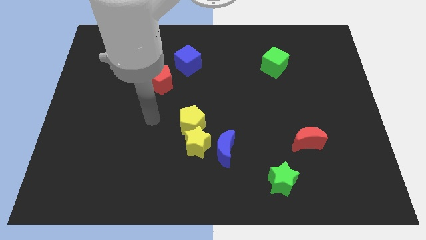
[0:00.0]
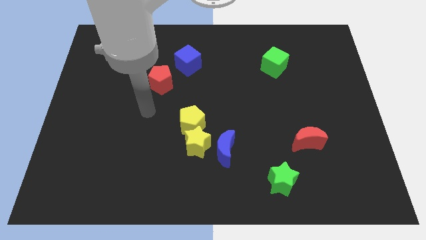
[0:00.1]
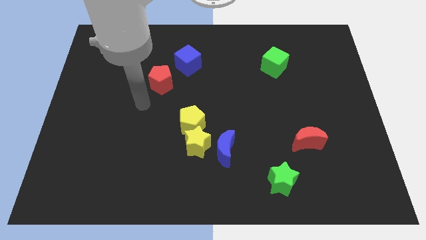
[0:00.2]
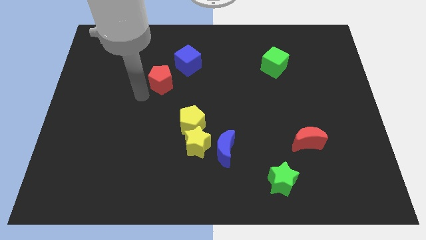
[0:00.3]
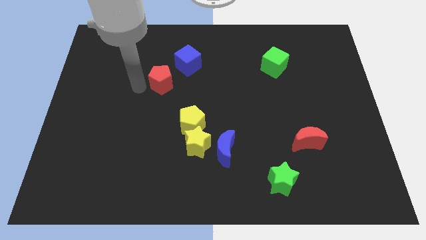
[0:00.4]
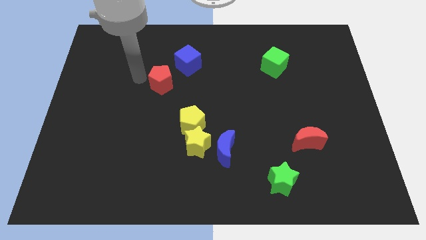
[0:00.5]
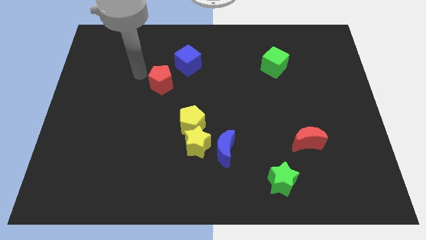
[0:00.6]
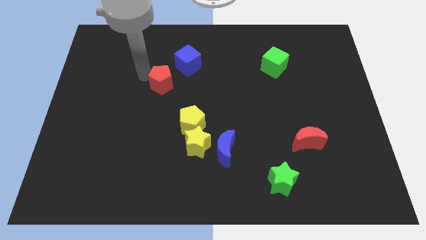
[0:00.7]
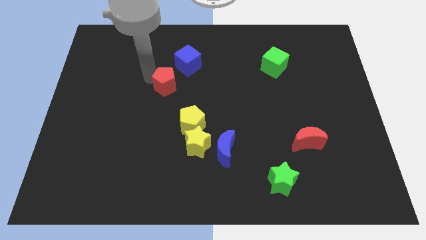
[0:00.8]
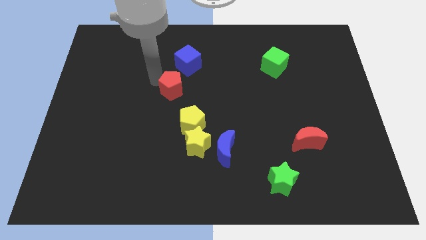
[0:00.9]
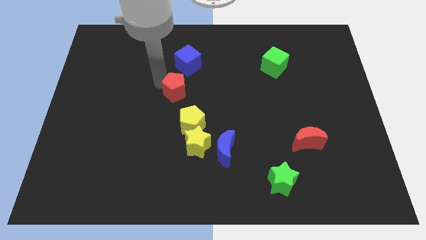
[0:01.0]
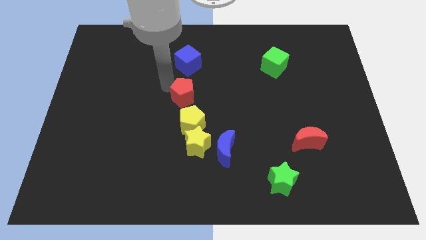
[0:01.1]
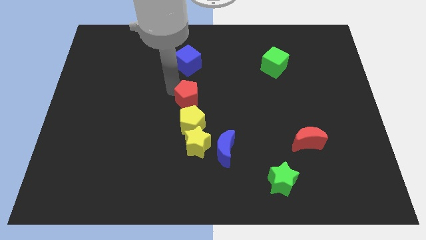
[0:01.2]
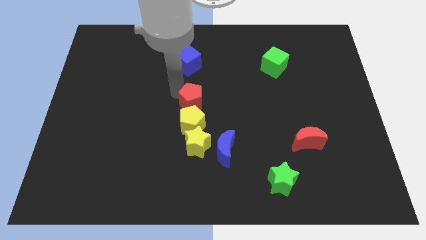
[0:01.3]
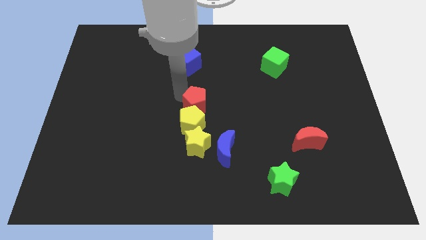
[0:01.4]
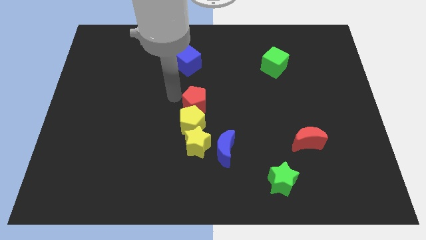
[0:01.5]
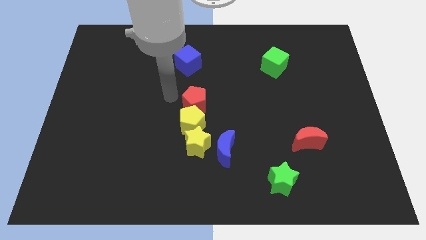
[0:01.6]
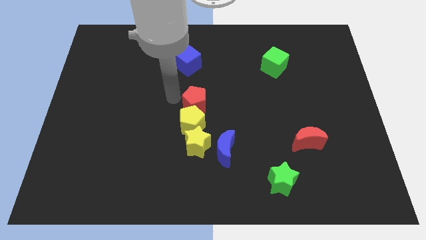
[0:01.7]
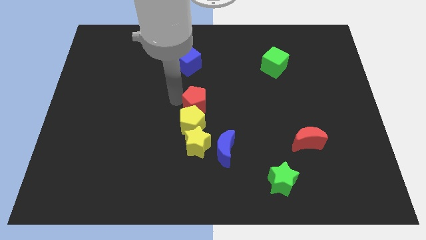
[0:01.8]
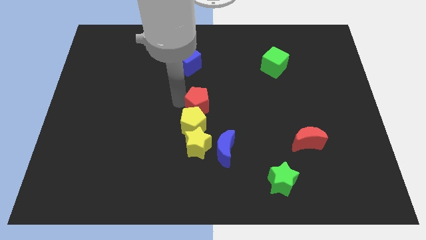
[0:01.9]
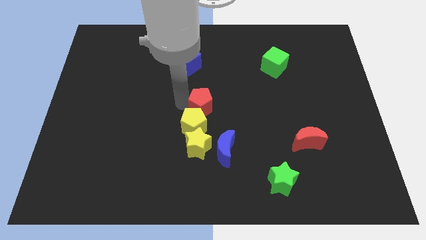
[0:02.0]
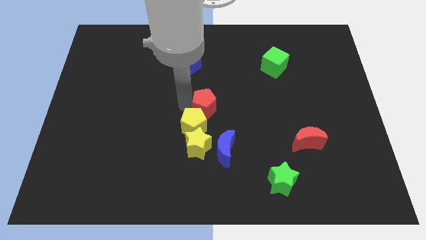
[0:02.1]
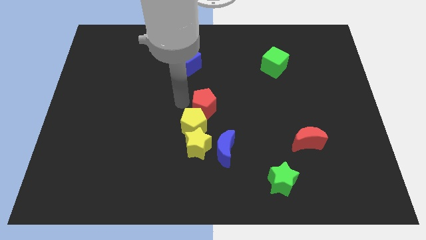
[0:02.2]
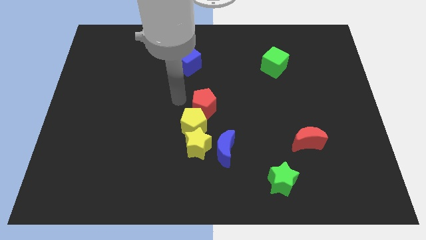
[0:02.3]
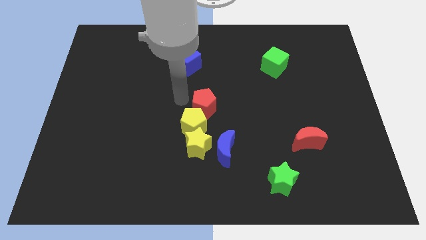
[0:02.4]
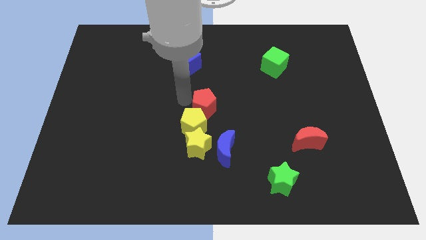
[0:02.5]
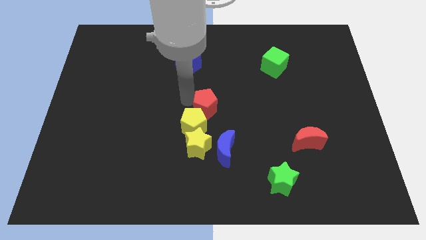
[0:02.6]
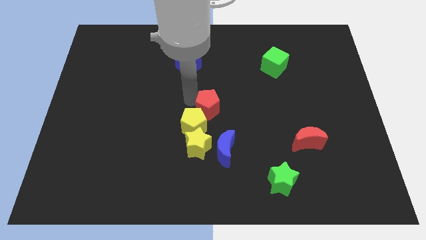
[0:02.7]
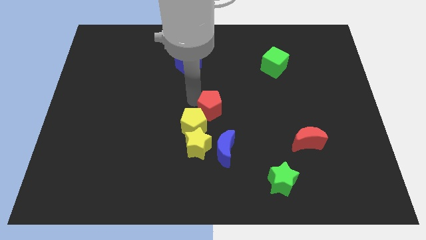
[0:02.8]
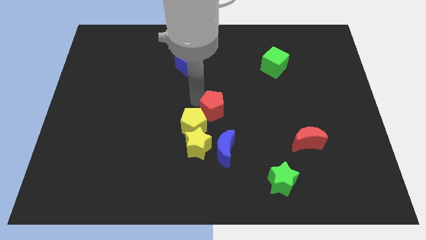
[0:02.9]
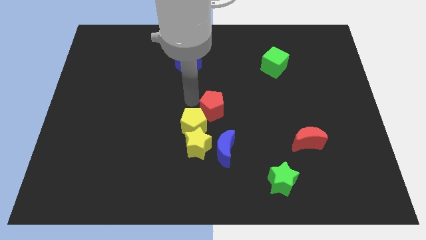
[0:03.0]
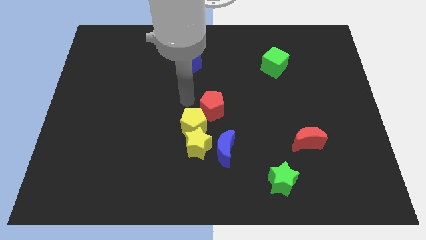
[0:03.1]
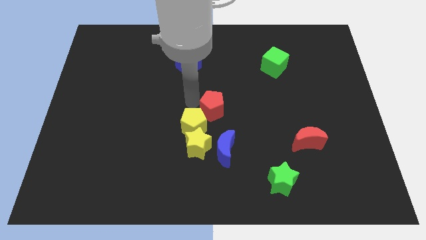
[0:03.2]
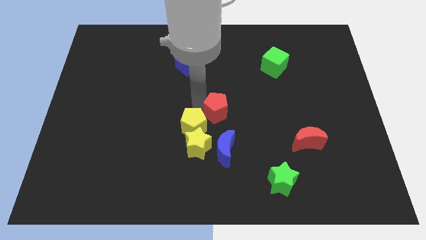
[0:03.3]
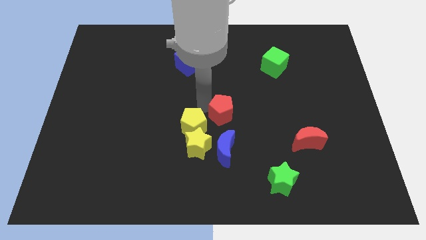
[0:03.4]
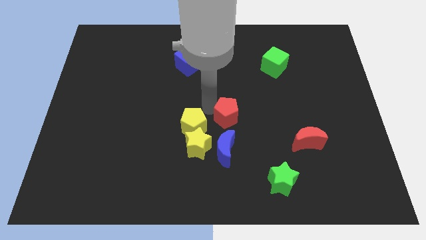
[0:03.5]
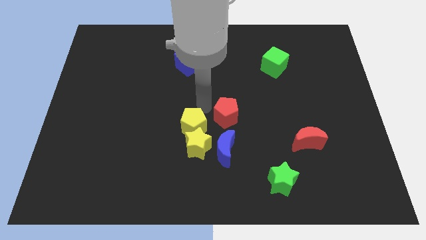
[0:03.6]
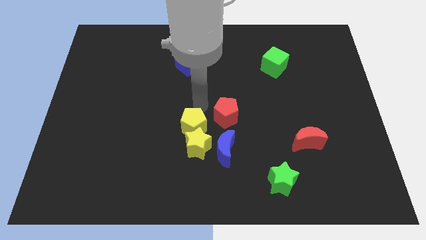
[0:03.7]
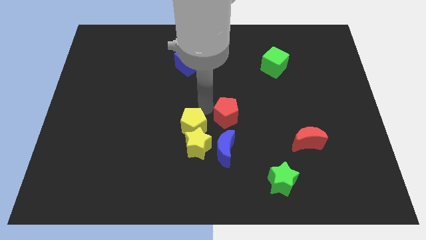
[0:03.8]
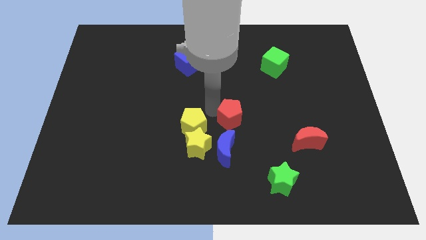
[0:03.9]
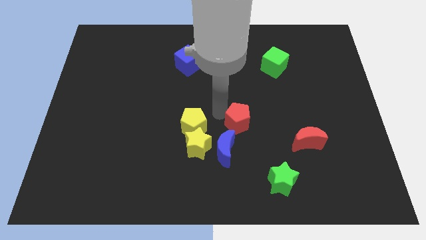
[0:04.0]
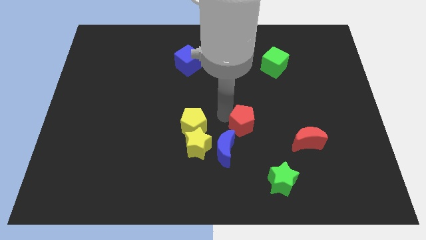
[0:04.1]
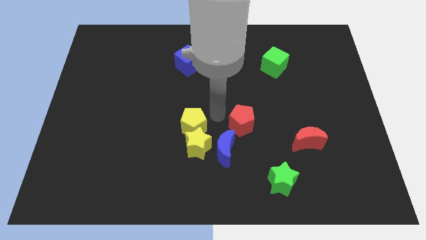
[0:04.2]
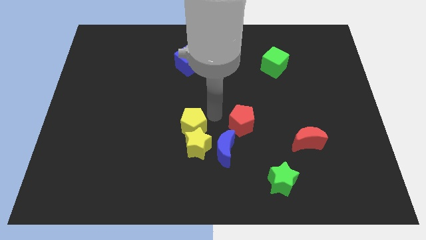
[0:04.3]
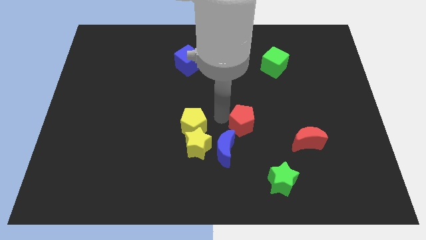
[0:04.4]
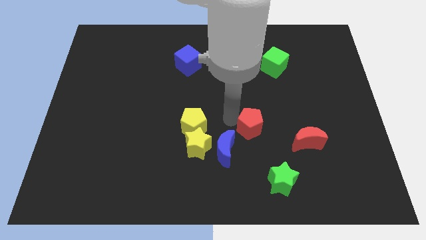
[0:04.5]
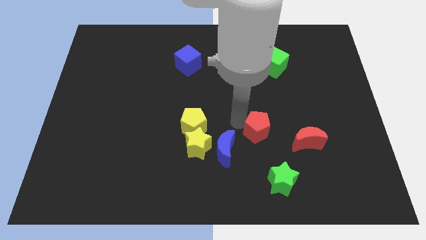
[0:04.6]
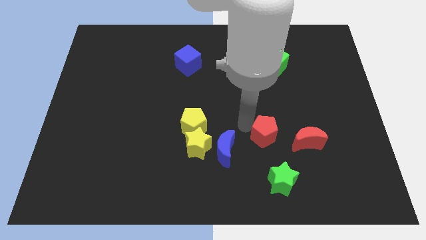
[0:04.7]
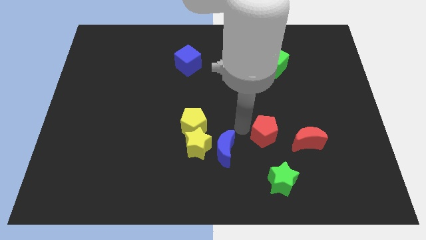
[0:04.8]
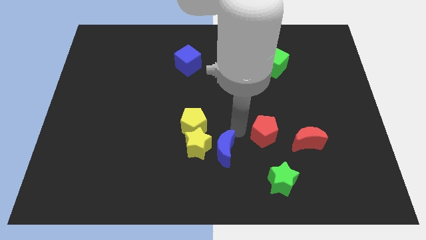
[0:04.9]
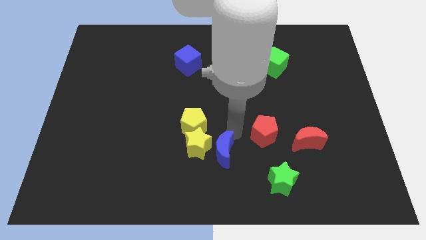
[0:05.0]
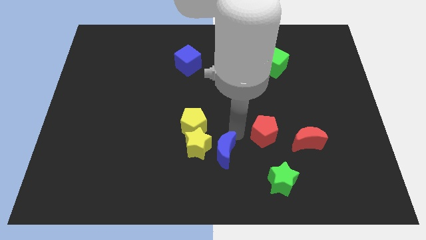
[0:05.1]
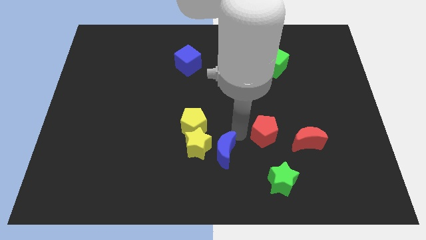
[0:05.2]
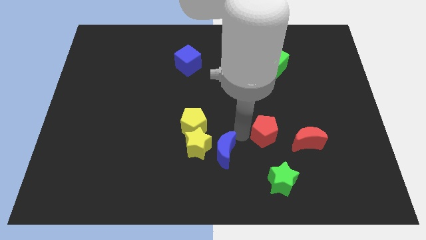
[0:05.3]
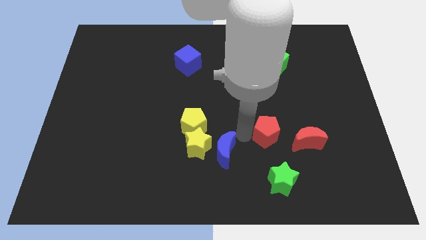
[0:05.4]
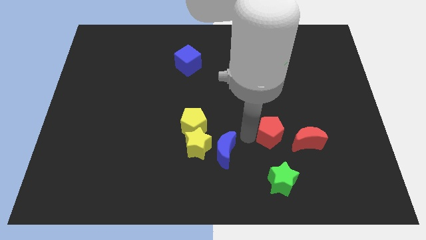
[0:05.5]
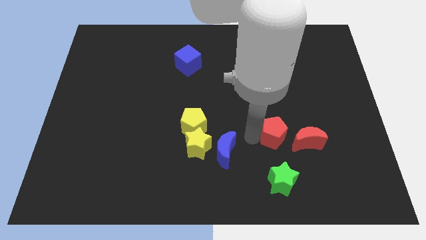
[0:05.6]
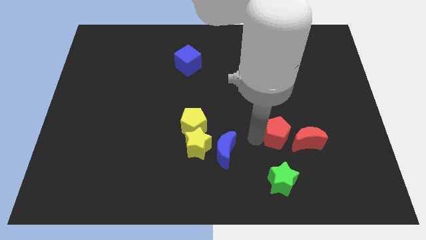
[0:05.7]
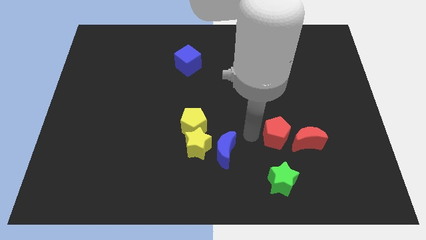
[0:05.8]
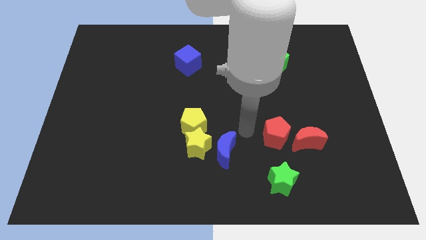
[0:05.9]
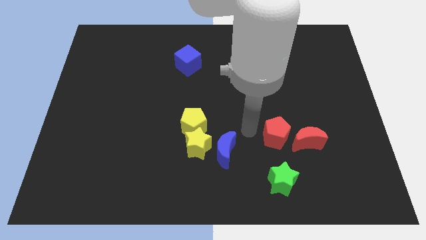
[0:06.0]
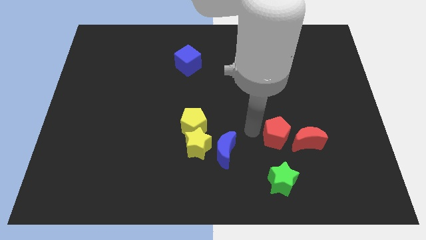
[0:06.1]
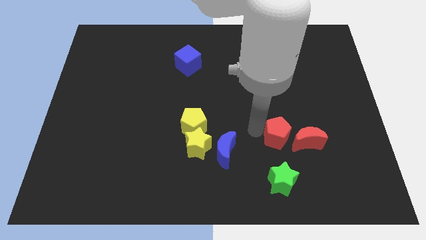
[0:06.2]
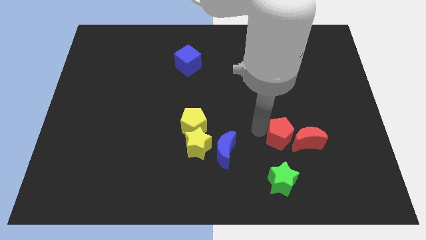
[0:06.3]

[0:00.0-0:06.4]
put the red pentagon close to the red moon
